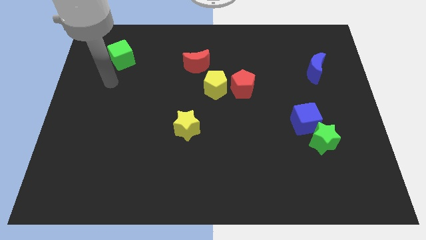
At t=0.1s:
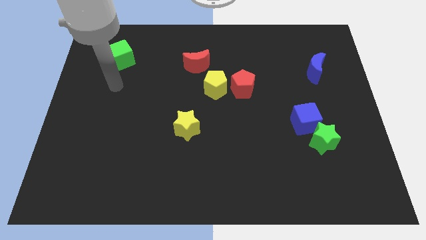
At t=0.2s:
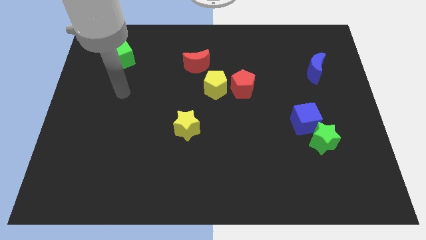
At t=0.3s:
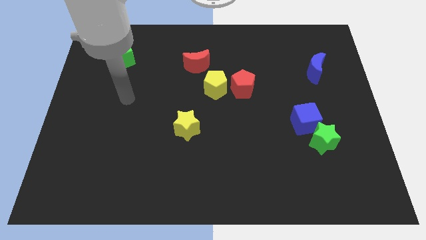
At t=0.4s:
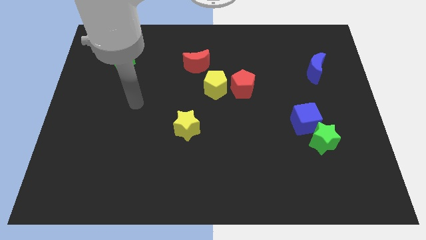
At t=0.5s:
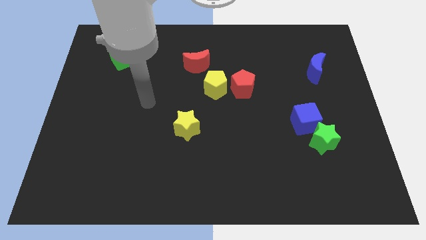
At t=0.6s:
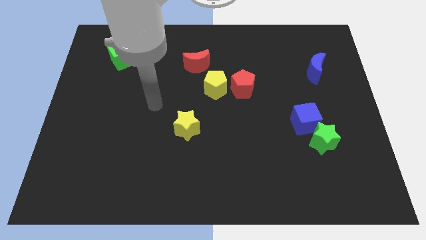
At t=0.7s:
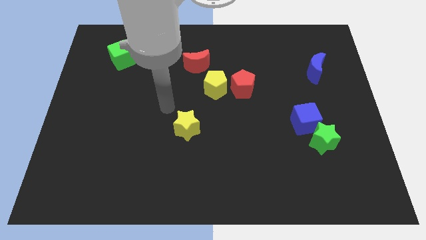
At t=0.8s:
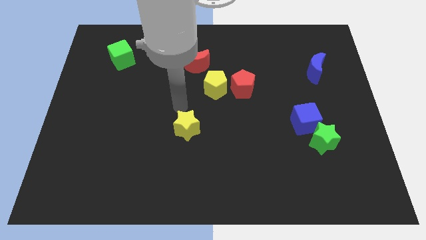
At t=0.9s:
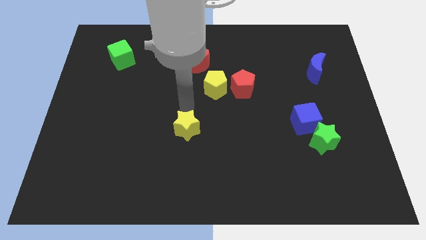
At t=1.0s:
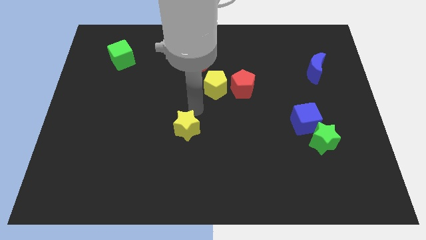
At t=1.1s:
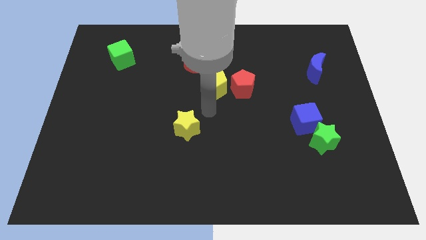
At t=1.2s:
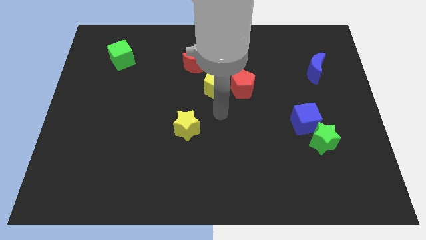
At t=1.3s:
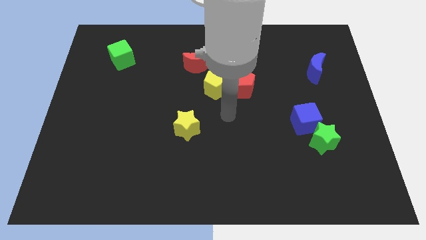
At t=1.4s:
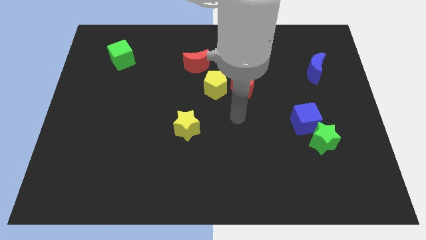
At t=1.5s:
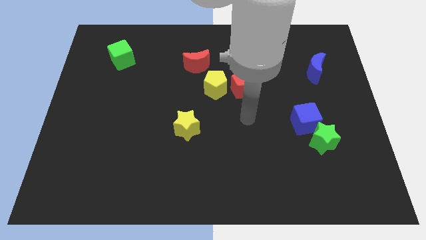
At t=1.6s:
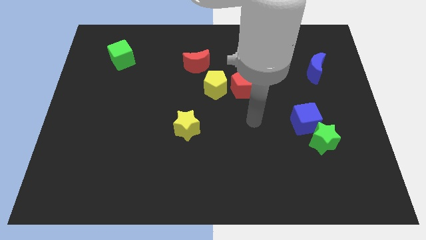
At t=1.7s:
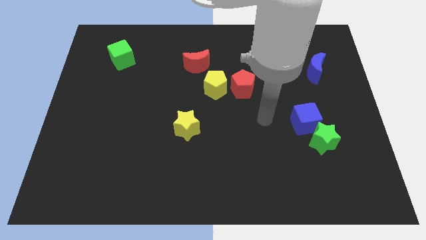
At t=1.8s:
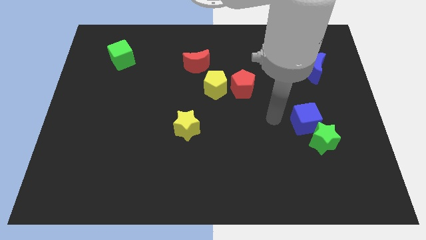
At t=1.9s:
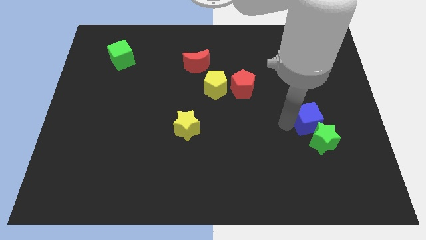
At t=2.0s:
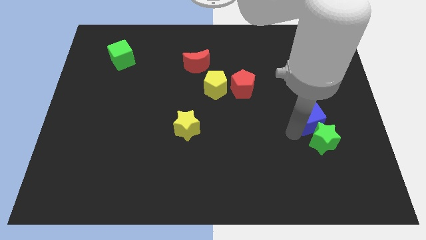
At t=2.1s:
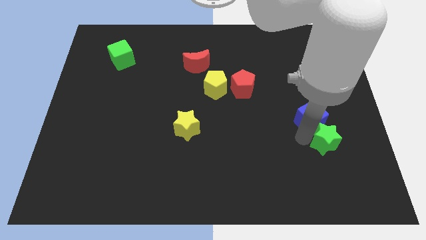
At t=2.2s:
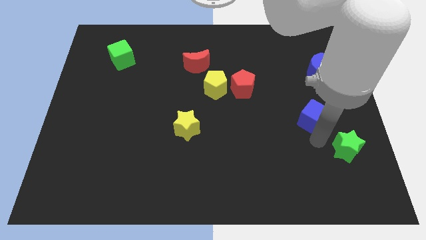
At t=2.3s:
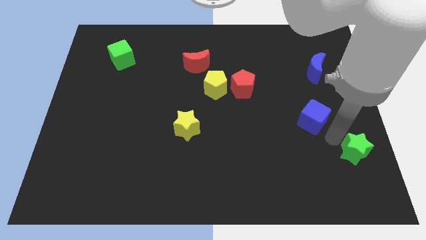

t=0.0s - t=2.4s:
move the blue cube away from the green star

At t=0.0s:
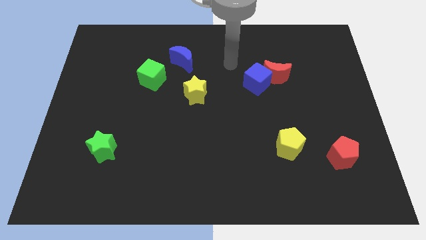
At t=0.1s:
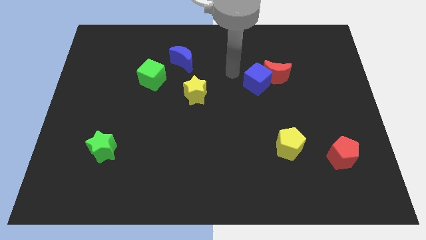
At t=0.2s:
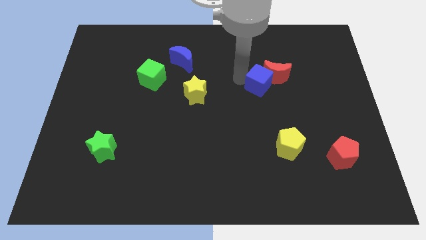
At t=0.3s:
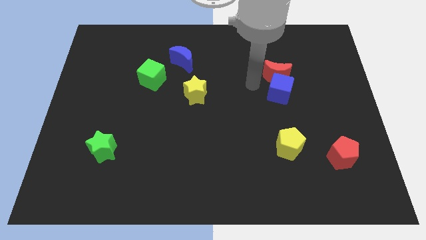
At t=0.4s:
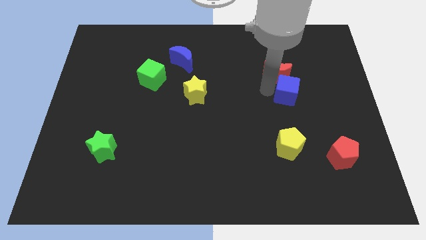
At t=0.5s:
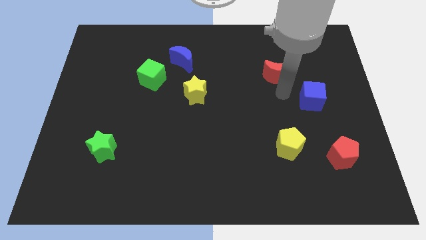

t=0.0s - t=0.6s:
pull the red moon apart from the blue cube

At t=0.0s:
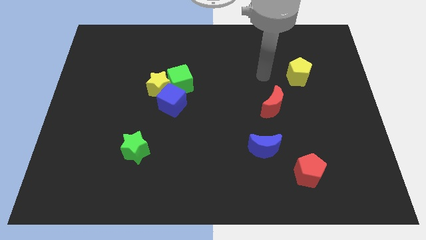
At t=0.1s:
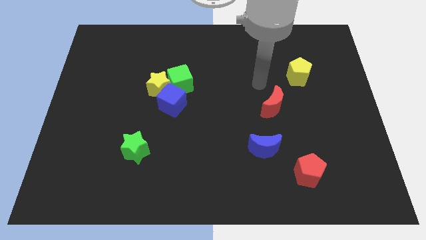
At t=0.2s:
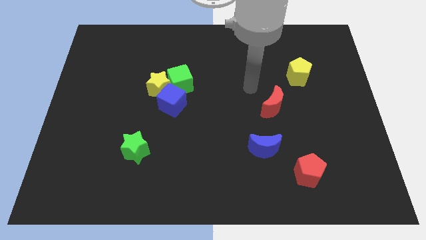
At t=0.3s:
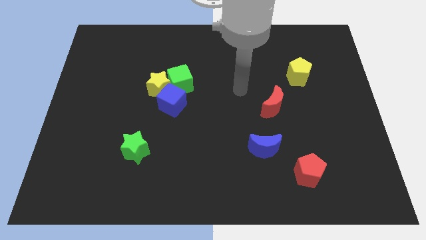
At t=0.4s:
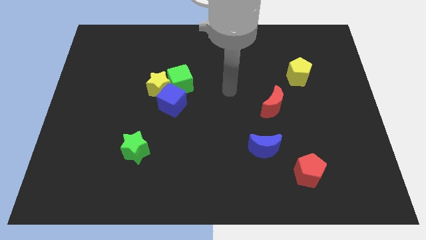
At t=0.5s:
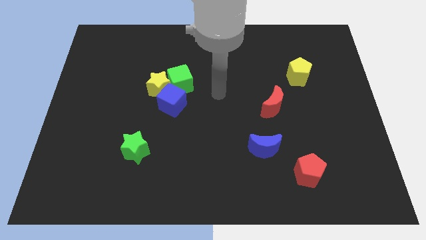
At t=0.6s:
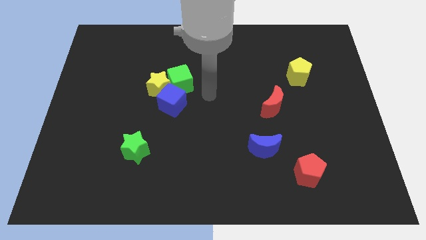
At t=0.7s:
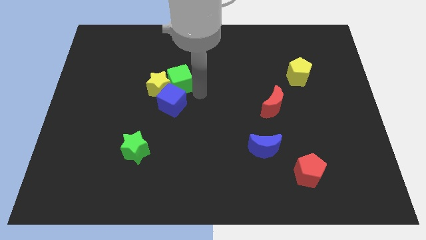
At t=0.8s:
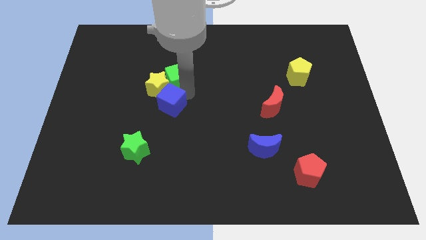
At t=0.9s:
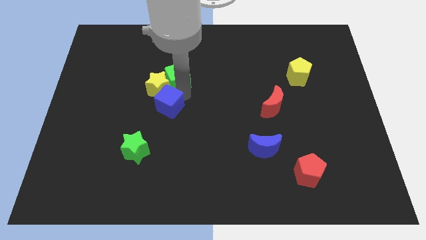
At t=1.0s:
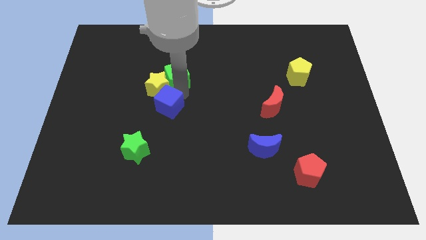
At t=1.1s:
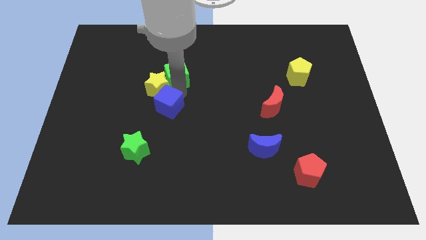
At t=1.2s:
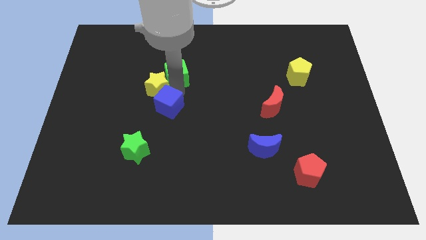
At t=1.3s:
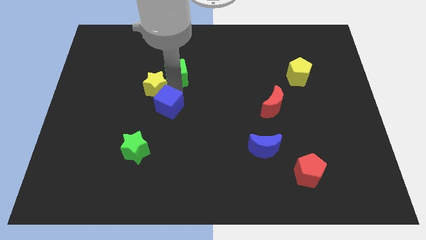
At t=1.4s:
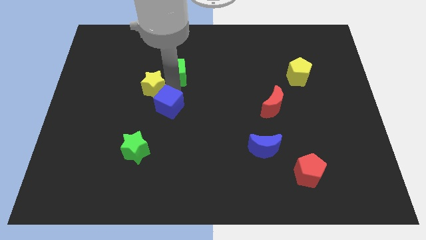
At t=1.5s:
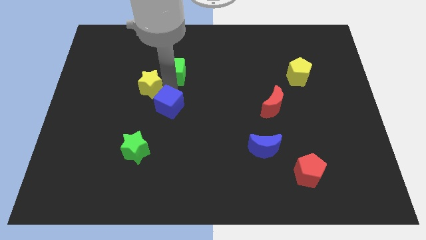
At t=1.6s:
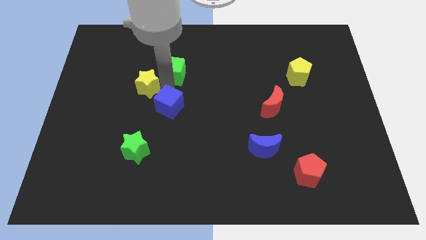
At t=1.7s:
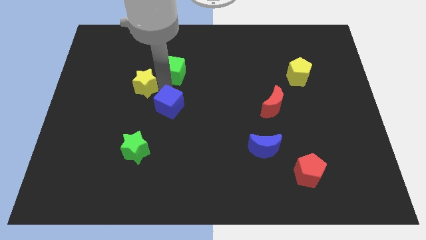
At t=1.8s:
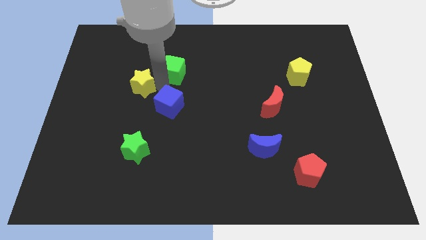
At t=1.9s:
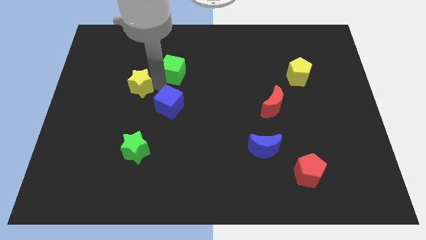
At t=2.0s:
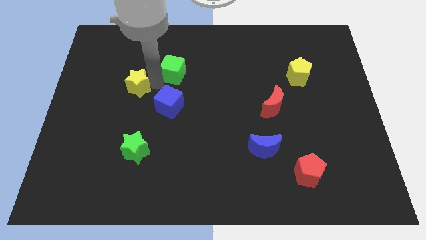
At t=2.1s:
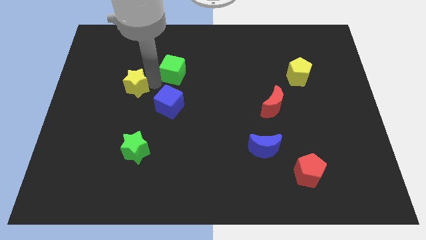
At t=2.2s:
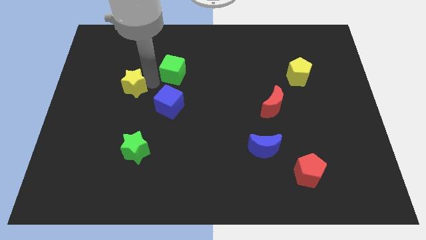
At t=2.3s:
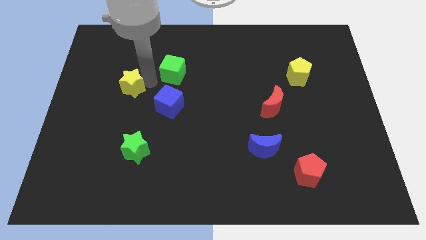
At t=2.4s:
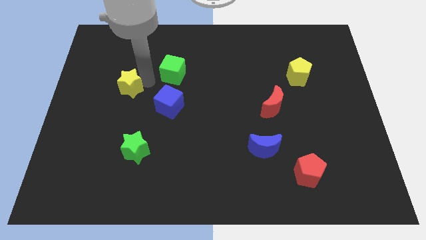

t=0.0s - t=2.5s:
move the yellow star away from the green cube and blue cube

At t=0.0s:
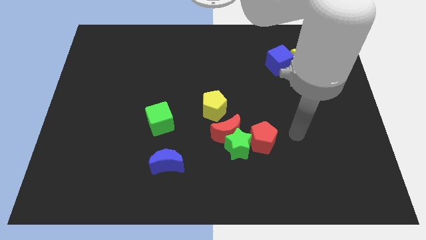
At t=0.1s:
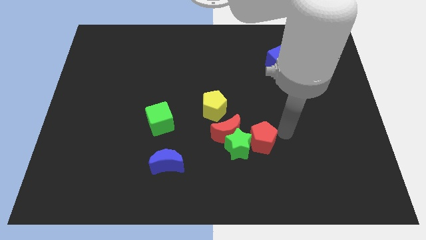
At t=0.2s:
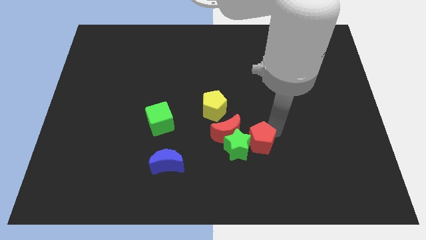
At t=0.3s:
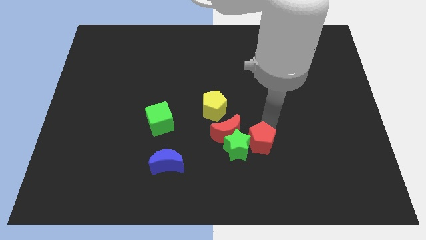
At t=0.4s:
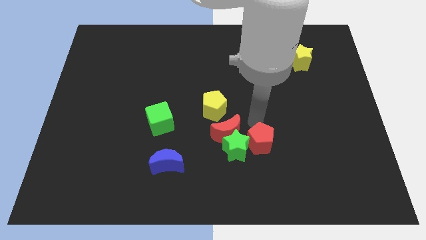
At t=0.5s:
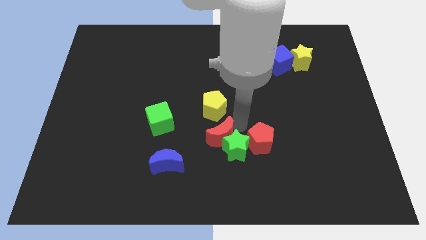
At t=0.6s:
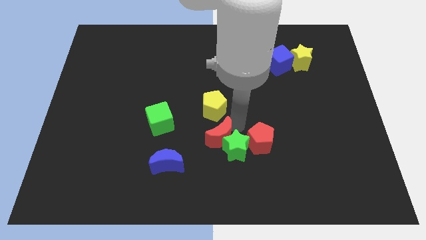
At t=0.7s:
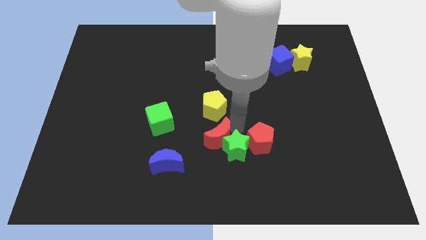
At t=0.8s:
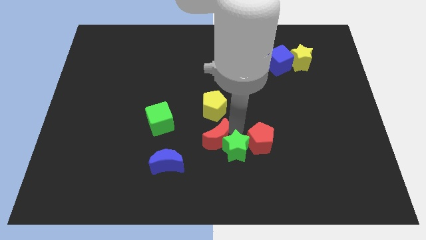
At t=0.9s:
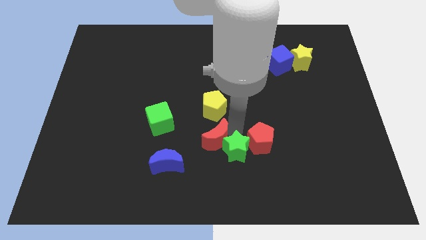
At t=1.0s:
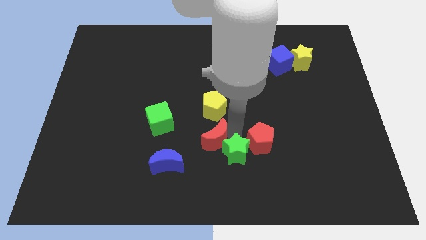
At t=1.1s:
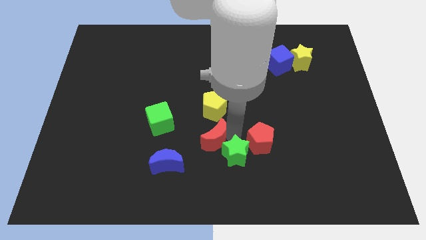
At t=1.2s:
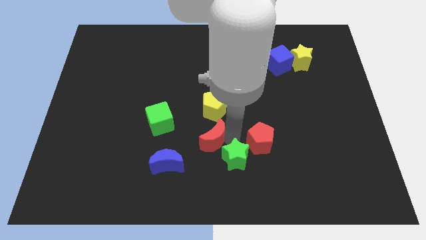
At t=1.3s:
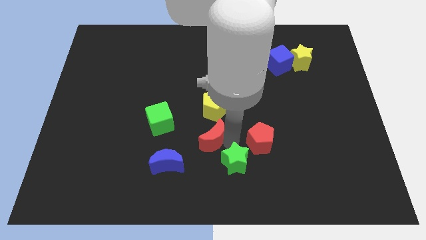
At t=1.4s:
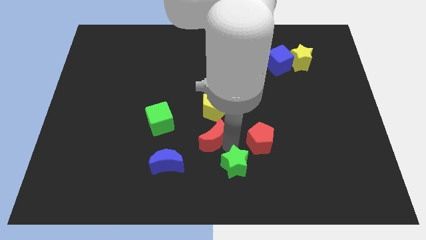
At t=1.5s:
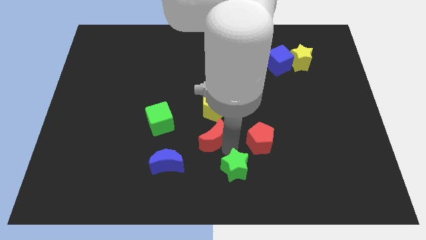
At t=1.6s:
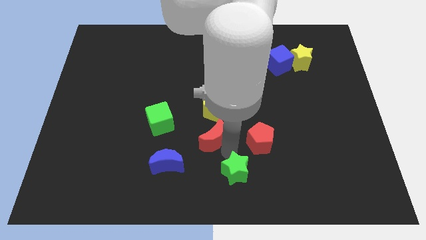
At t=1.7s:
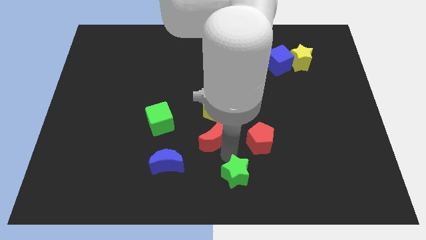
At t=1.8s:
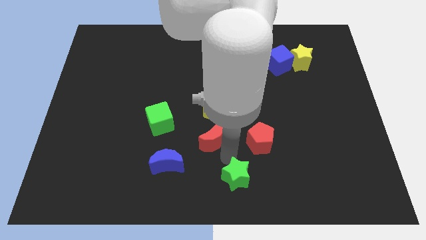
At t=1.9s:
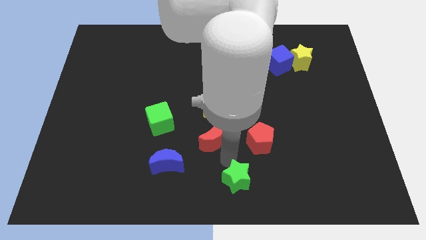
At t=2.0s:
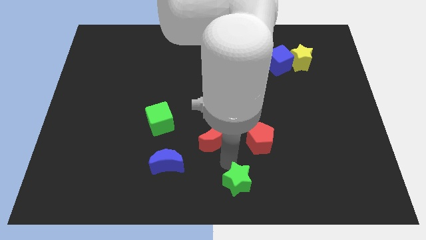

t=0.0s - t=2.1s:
pull the green star apart from the red moon and red pentagon

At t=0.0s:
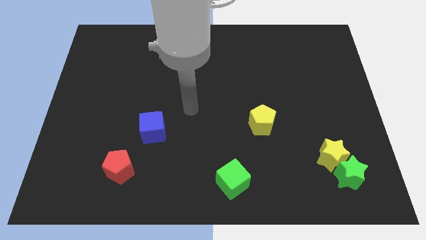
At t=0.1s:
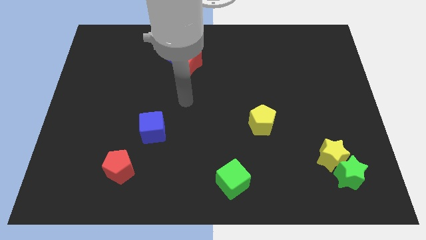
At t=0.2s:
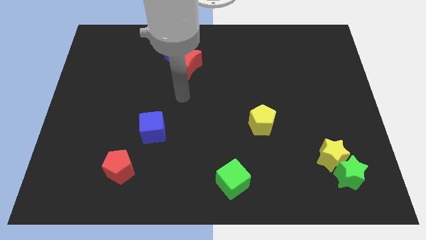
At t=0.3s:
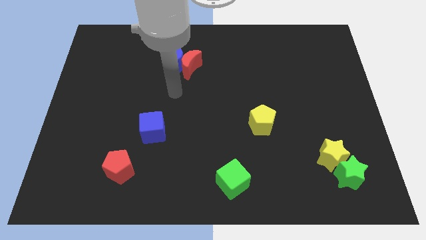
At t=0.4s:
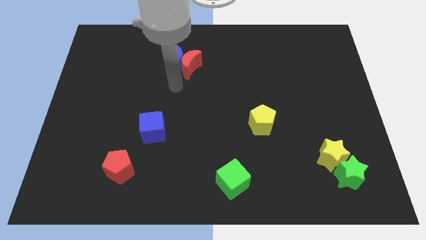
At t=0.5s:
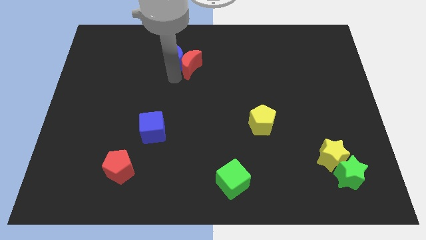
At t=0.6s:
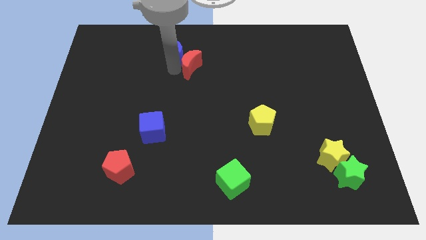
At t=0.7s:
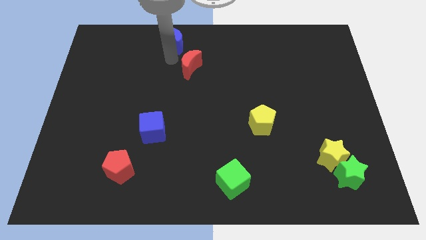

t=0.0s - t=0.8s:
pull the red moon apart from the blue moon

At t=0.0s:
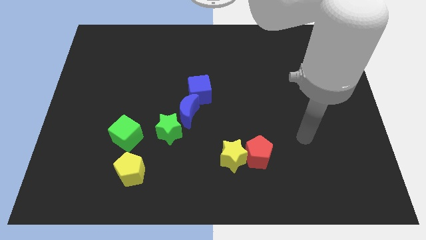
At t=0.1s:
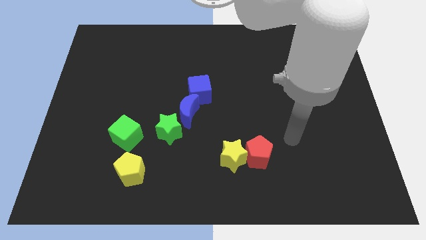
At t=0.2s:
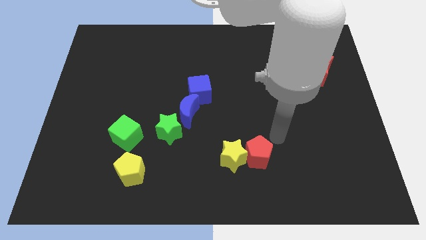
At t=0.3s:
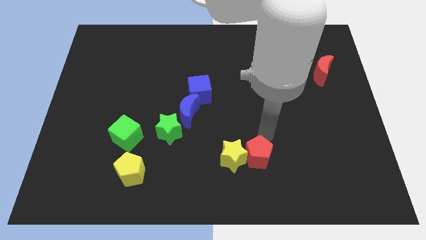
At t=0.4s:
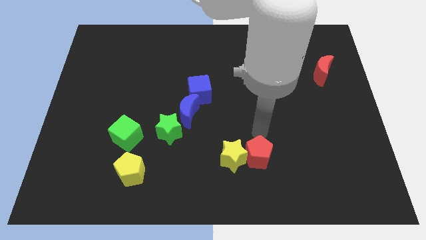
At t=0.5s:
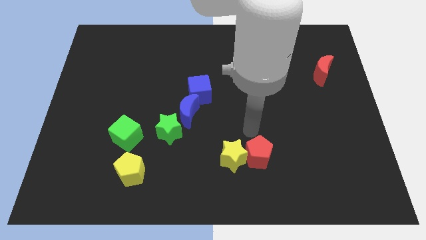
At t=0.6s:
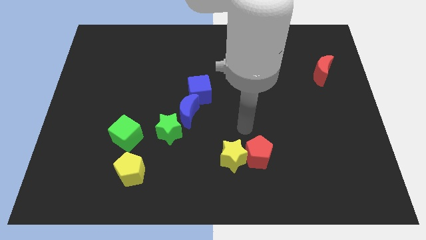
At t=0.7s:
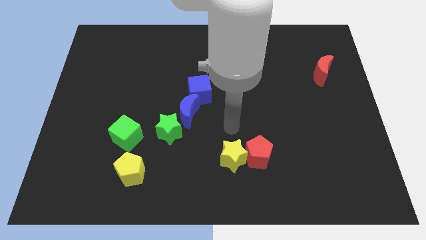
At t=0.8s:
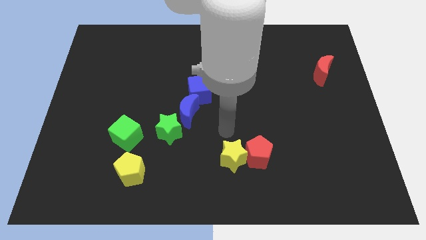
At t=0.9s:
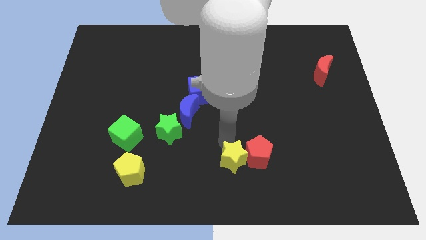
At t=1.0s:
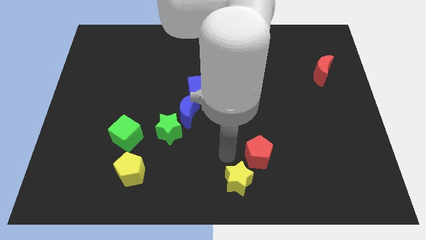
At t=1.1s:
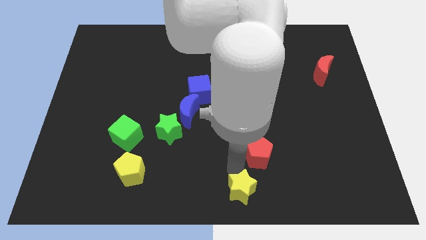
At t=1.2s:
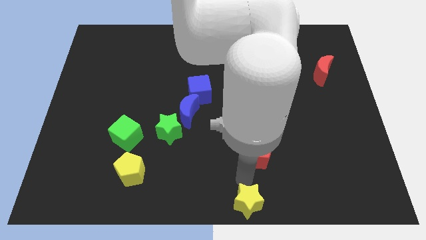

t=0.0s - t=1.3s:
separate the red pentagon from the yellow star
